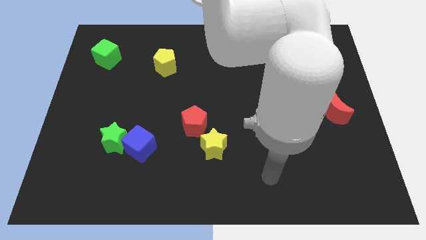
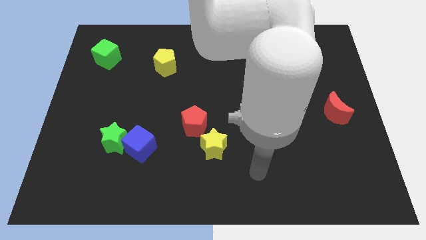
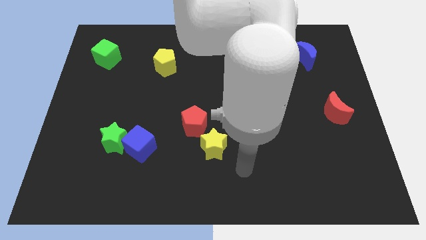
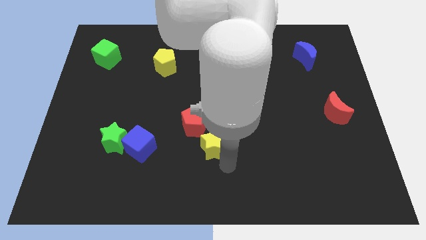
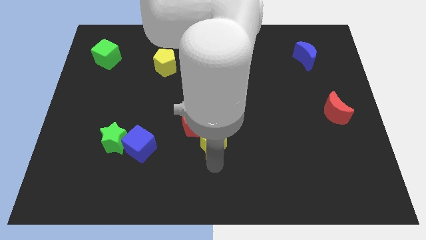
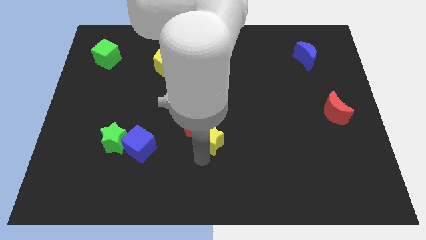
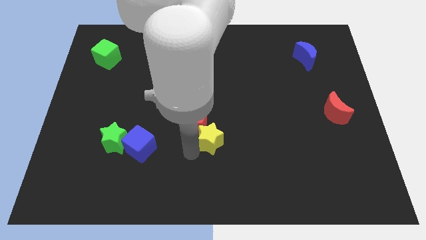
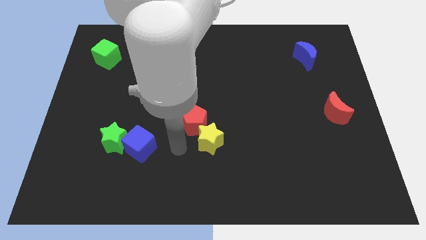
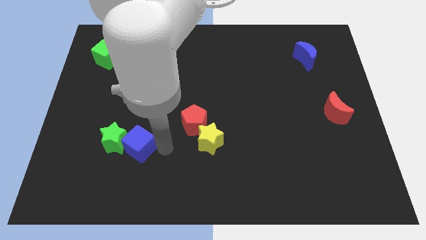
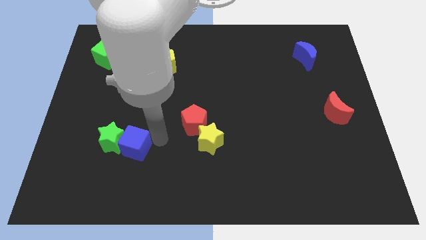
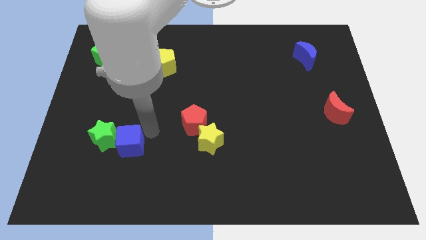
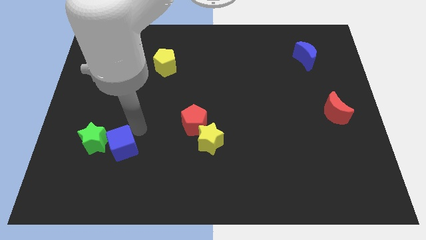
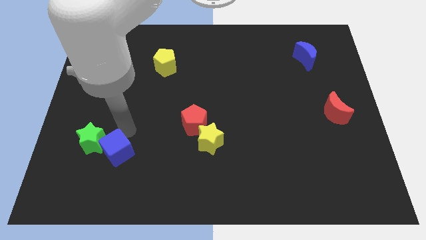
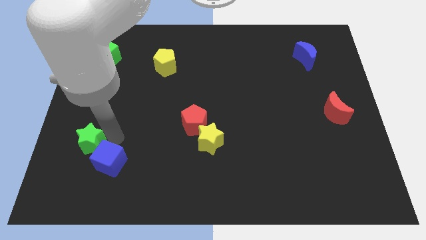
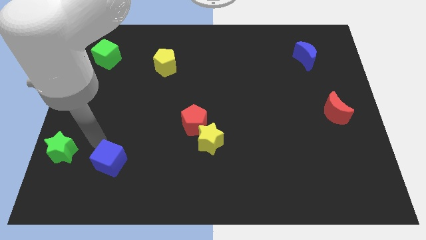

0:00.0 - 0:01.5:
separate the blue cube from the green star

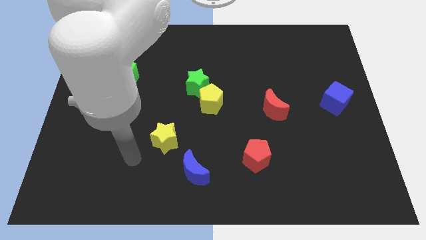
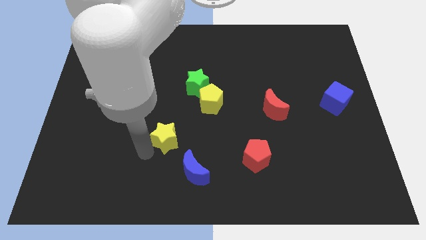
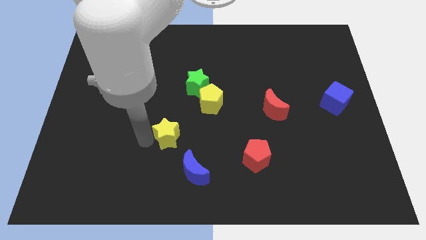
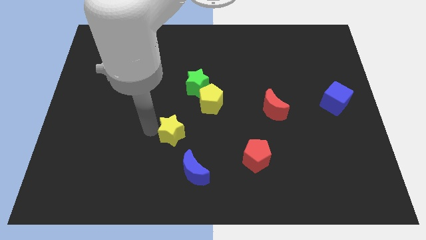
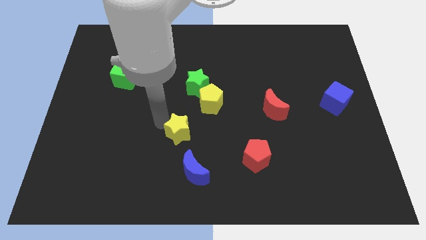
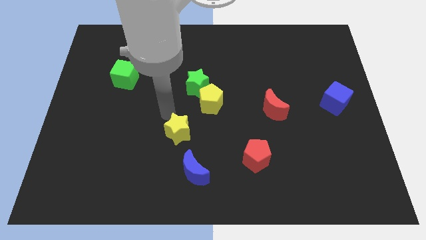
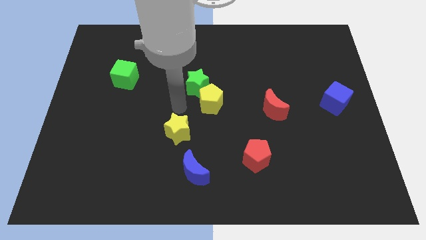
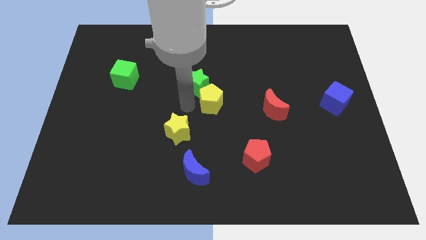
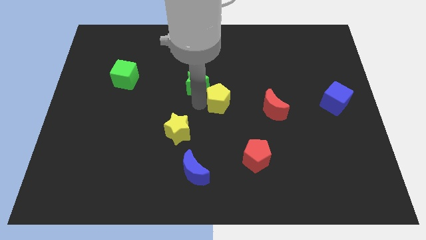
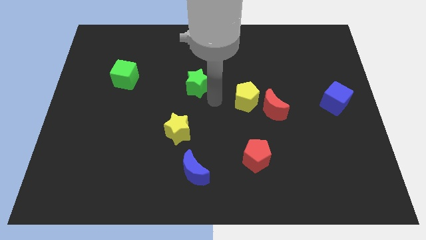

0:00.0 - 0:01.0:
pull the green star apart from the yellow pentagon

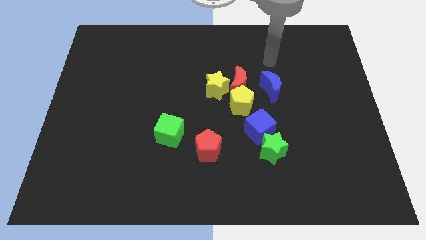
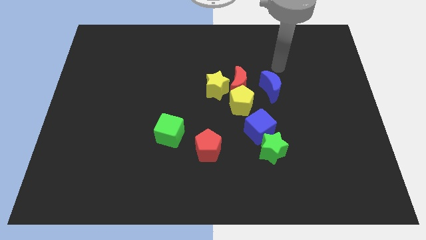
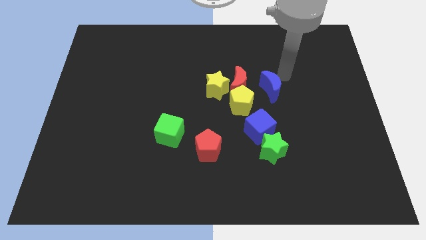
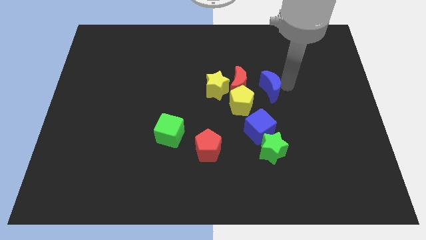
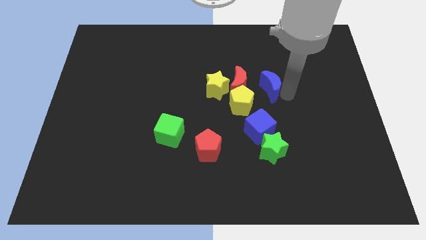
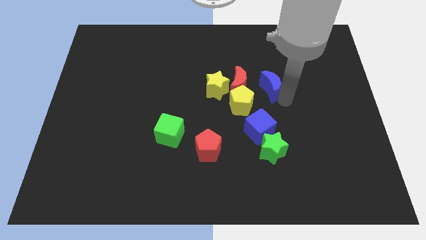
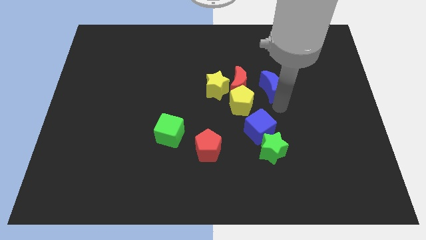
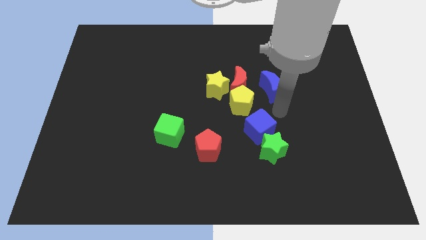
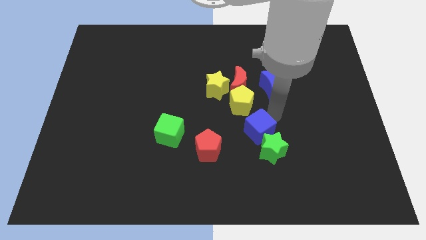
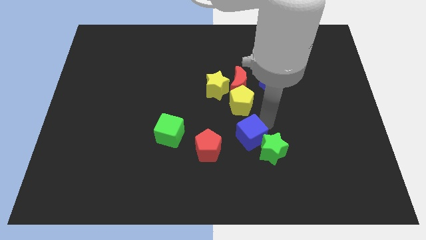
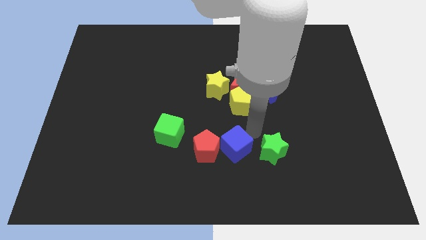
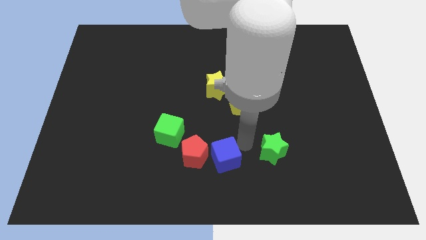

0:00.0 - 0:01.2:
separate the green star from the blue cube

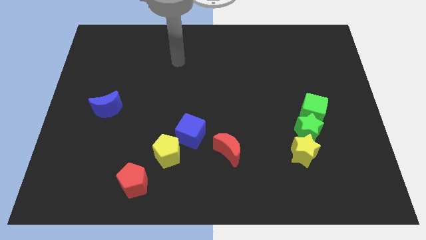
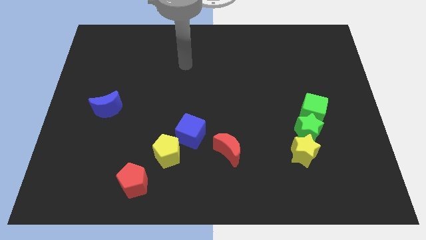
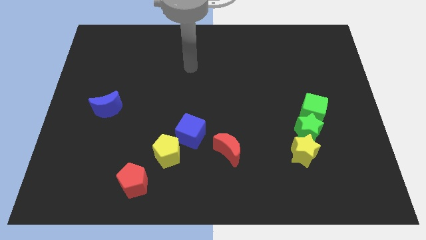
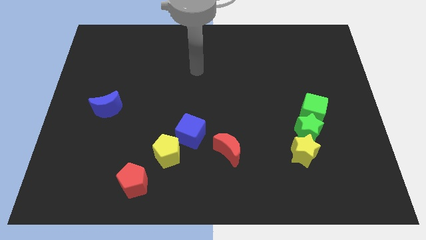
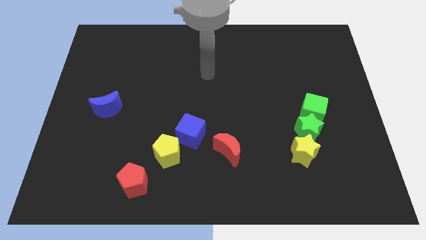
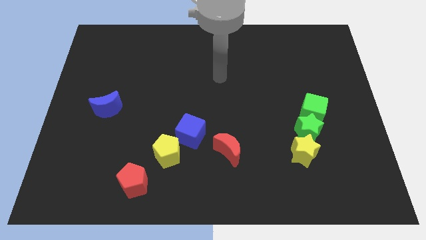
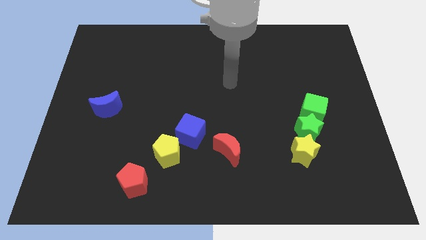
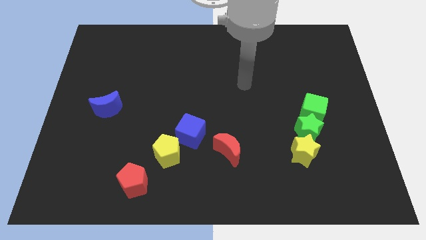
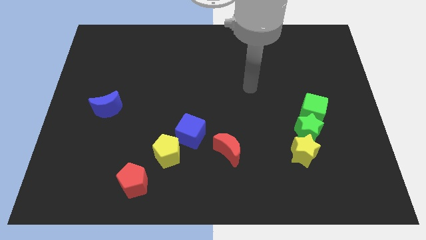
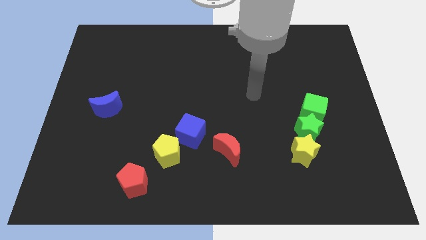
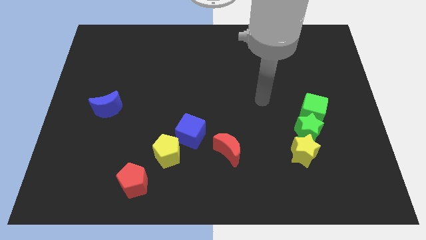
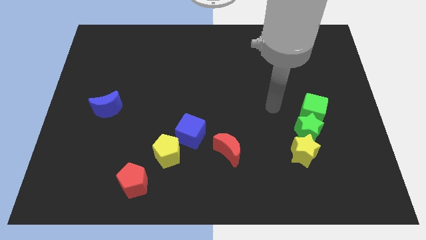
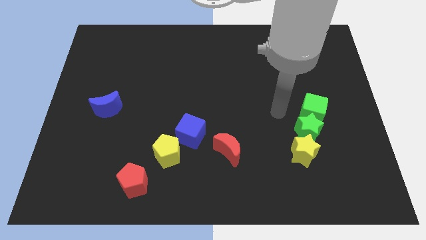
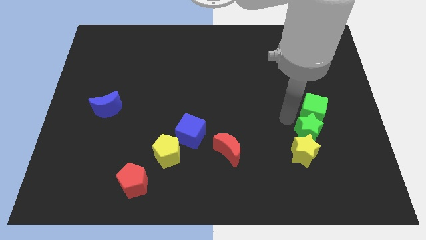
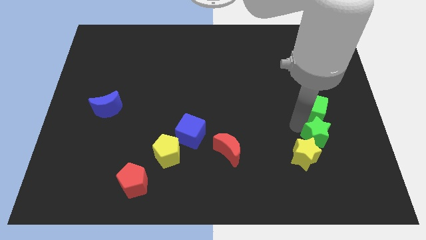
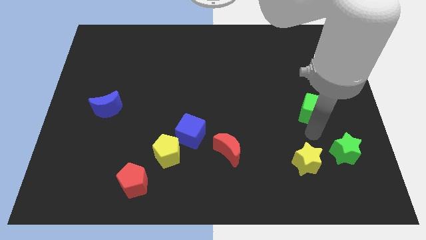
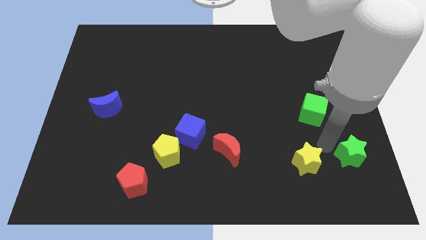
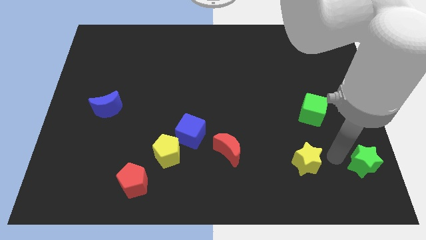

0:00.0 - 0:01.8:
separate the yellow star from the green star

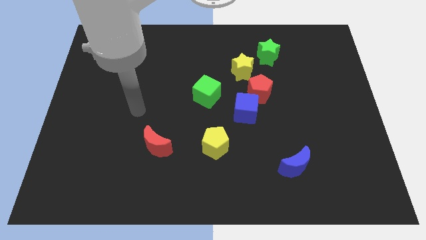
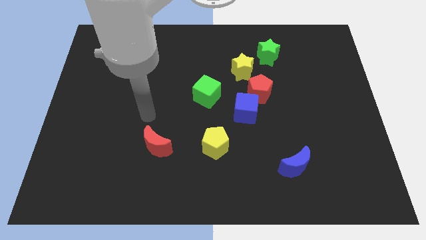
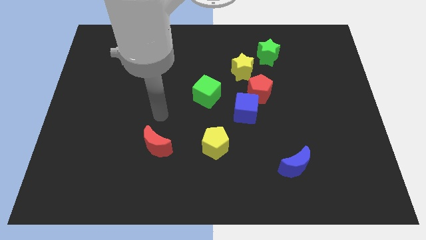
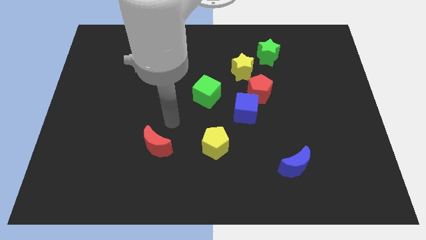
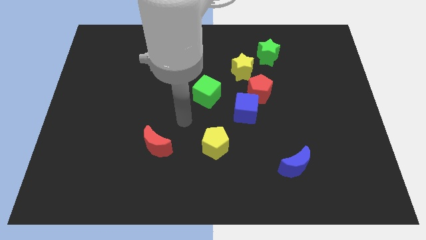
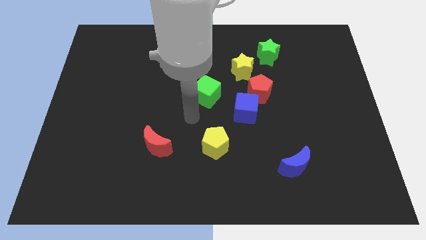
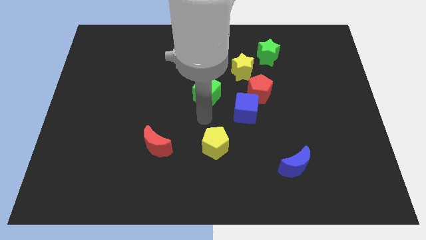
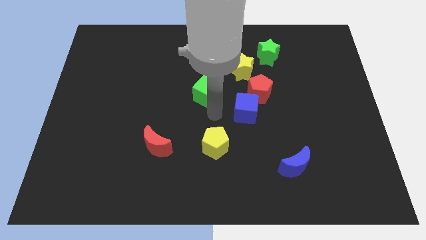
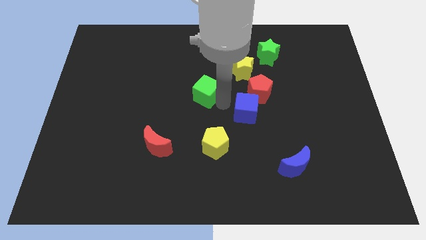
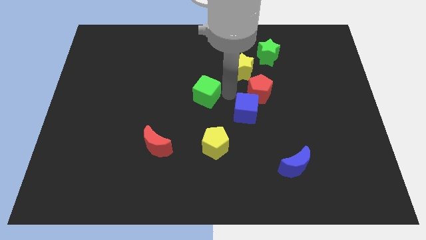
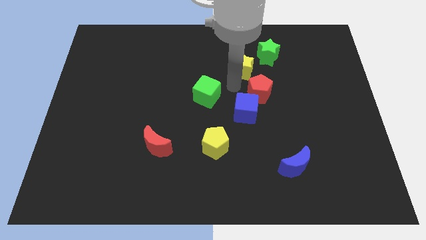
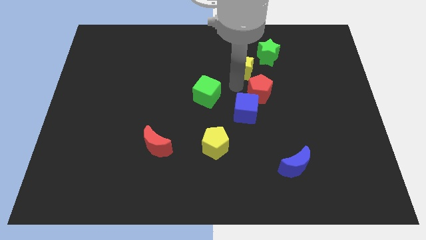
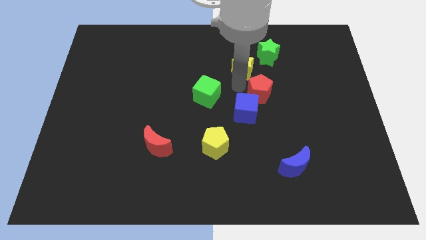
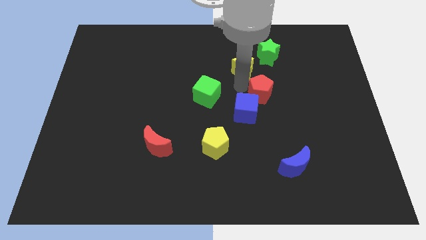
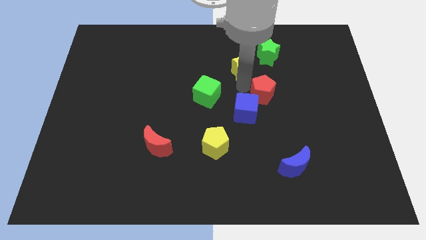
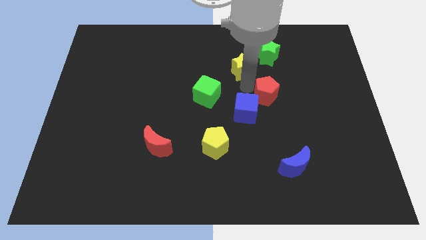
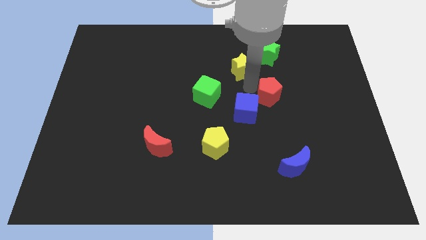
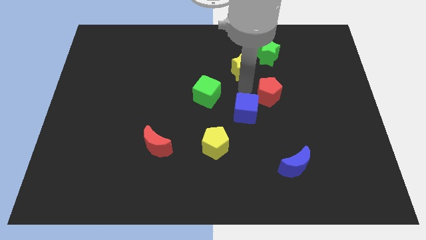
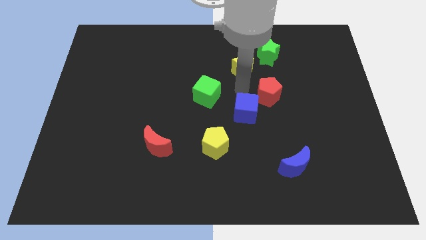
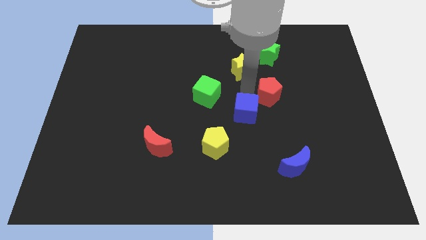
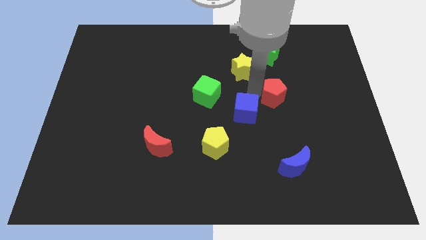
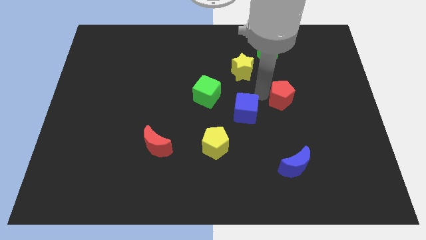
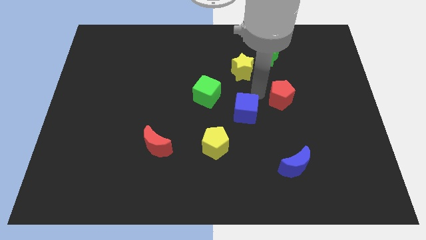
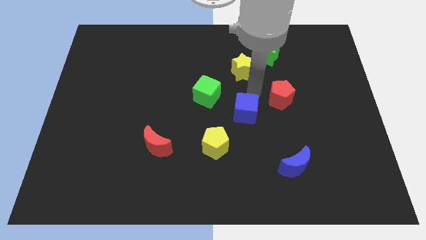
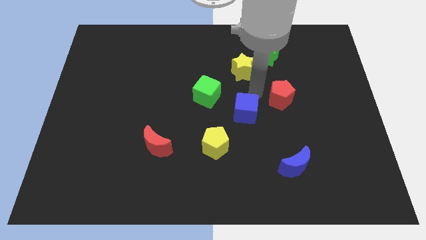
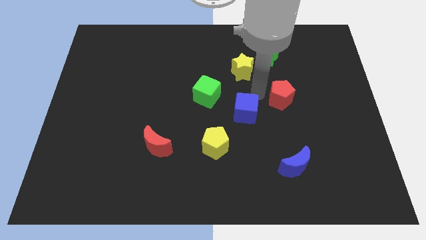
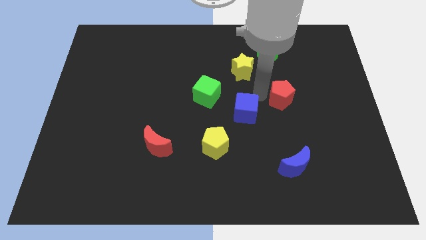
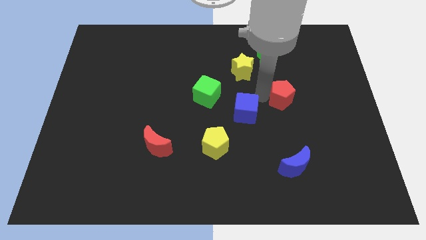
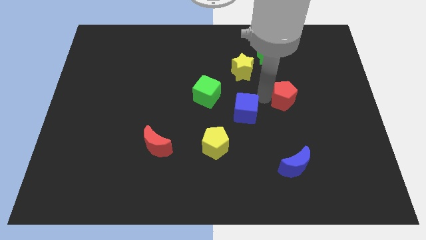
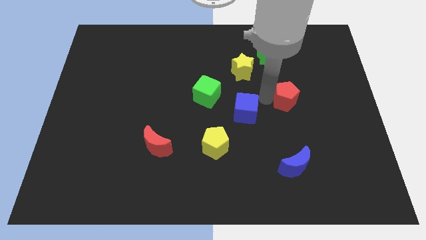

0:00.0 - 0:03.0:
pull the red pentagon apart from the blue cube and yellow star

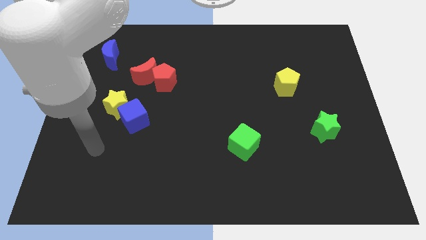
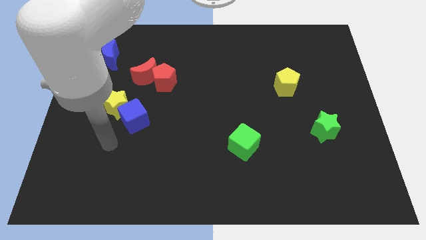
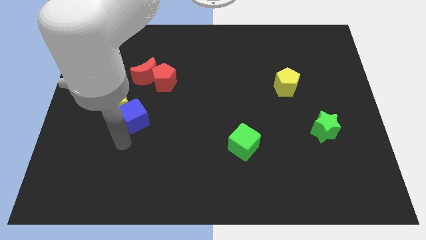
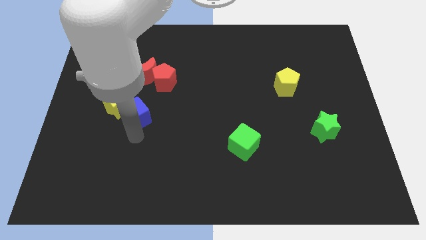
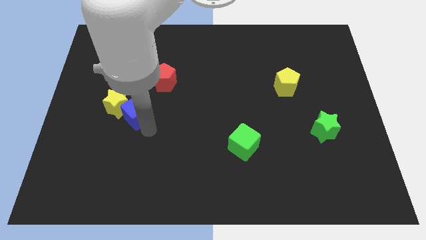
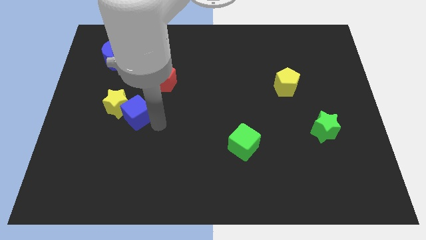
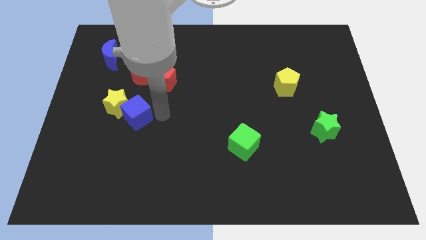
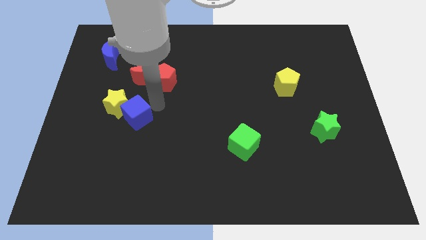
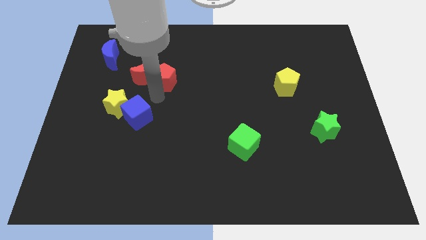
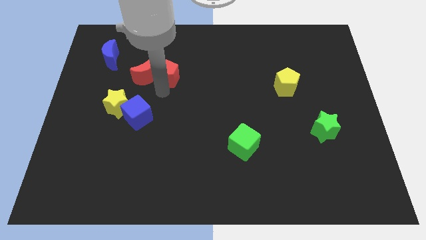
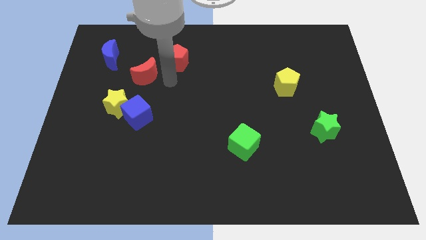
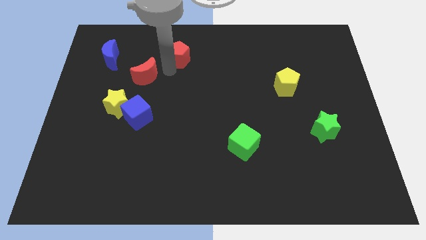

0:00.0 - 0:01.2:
pull the red moon apart from the red pentagon
